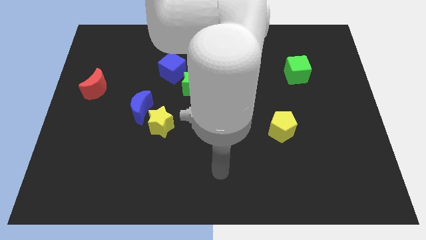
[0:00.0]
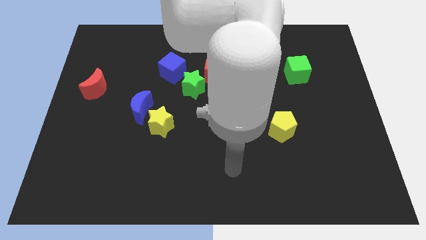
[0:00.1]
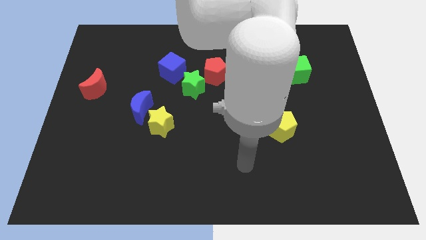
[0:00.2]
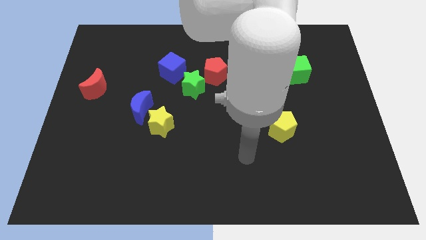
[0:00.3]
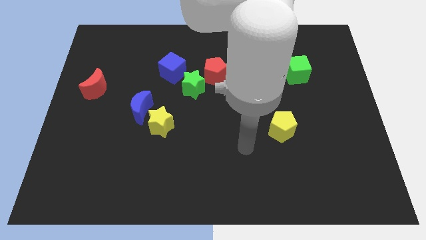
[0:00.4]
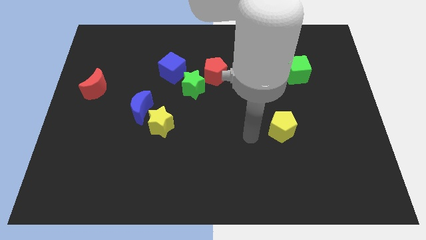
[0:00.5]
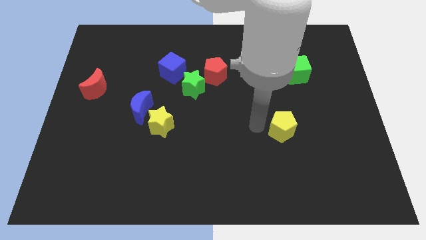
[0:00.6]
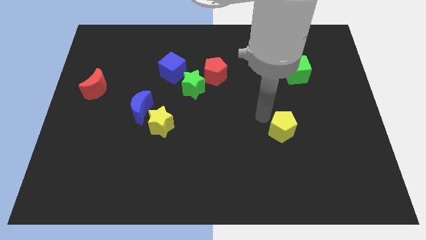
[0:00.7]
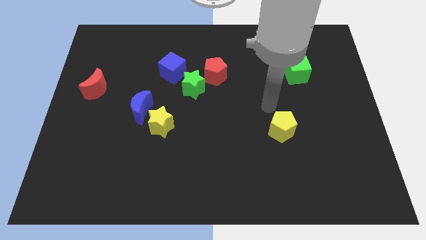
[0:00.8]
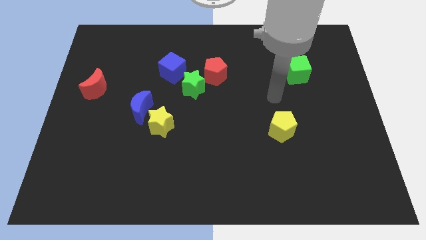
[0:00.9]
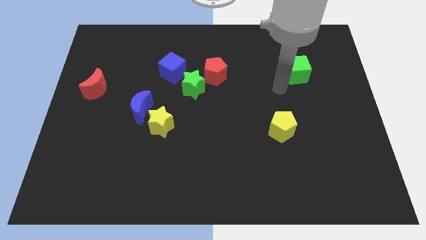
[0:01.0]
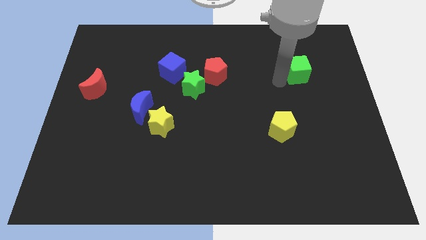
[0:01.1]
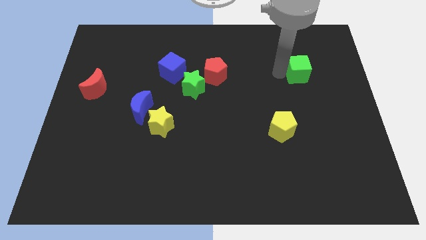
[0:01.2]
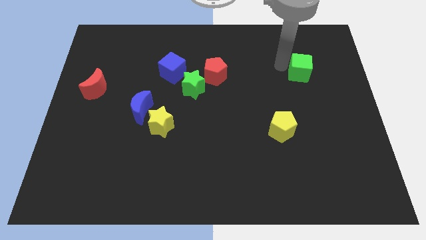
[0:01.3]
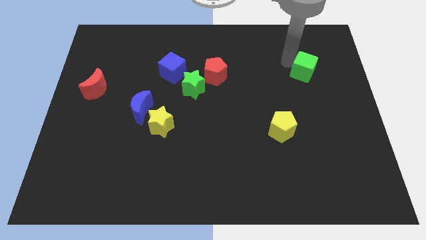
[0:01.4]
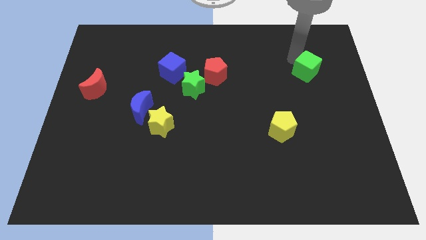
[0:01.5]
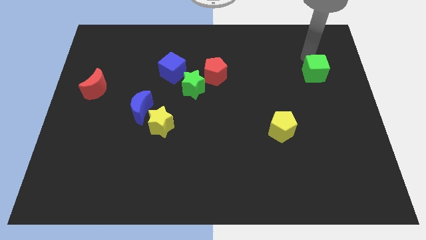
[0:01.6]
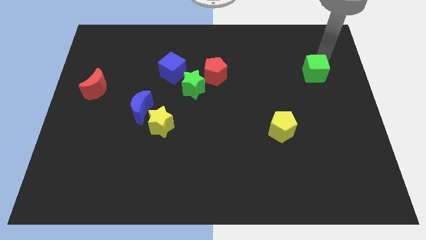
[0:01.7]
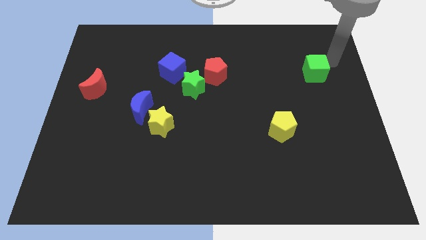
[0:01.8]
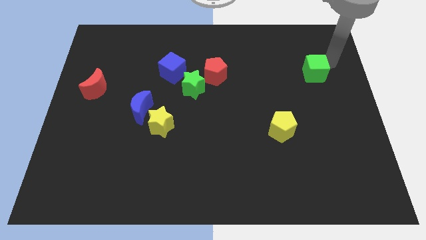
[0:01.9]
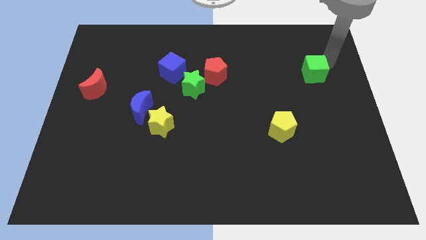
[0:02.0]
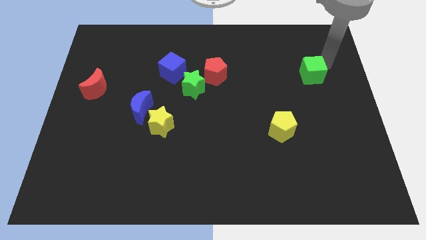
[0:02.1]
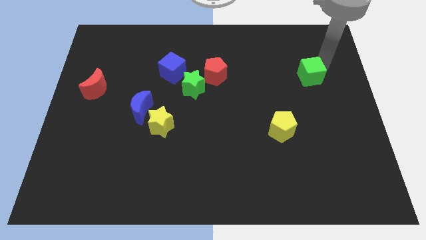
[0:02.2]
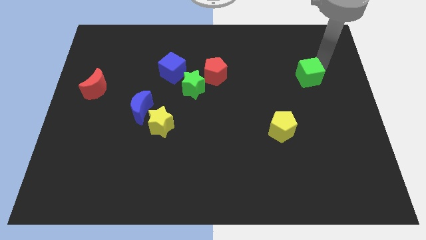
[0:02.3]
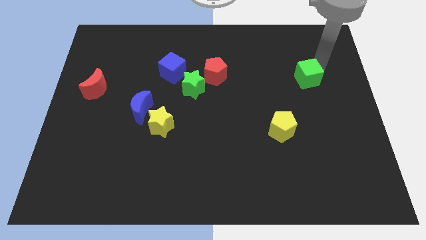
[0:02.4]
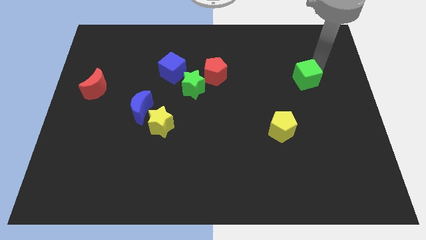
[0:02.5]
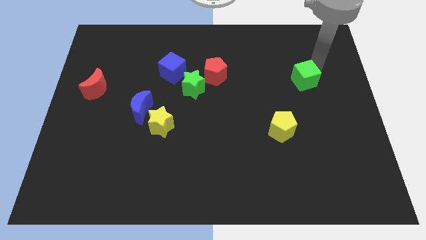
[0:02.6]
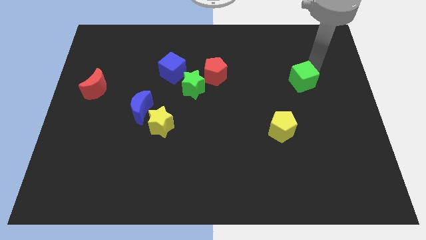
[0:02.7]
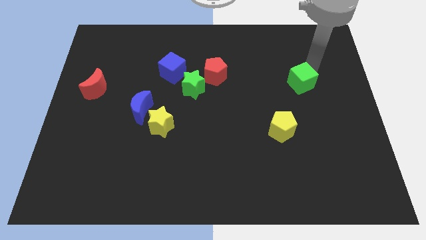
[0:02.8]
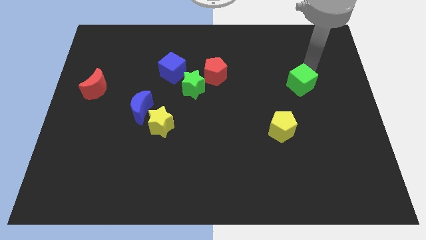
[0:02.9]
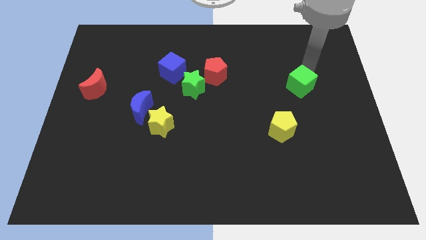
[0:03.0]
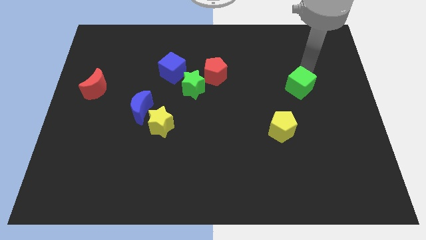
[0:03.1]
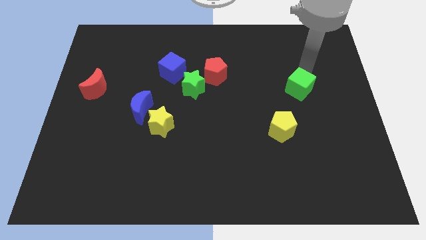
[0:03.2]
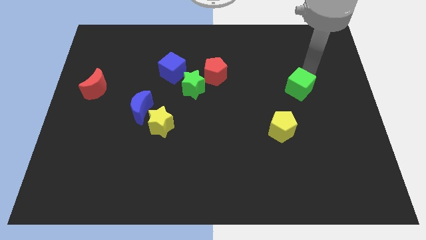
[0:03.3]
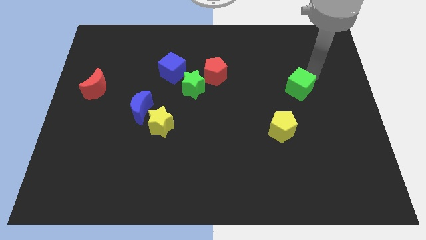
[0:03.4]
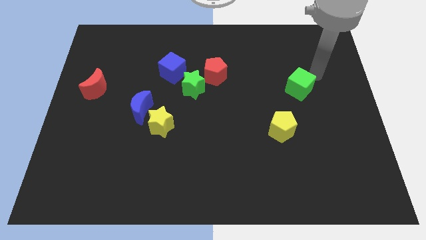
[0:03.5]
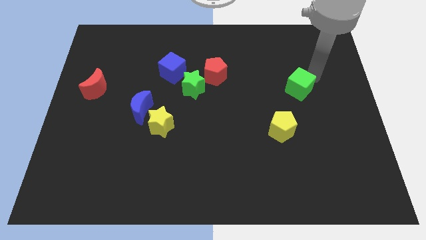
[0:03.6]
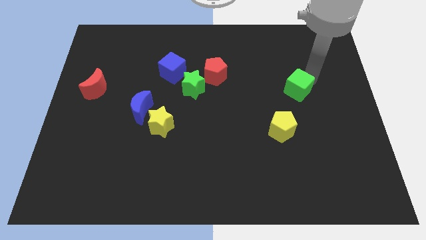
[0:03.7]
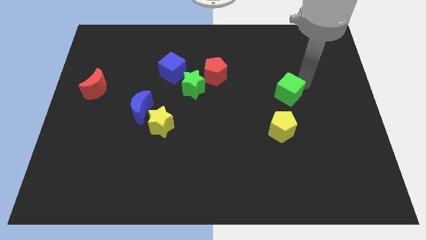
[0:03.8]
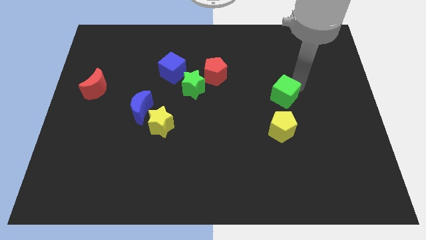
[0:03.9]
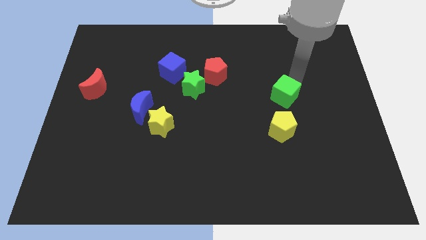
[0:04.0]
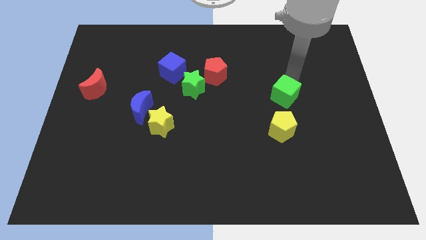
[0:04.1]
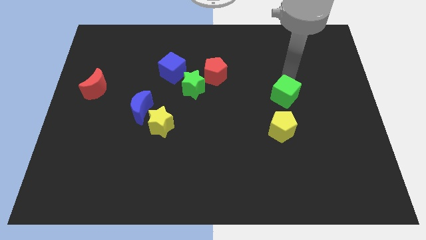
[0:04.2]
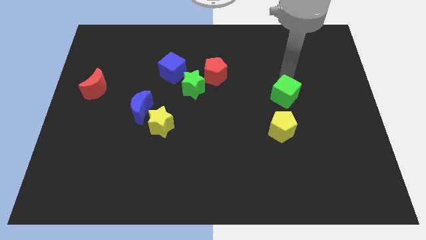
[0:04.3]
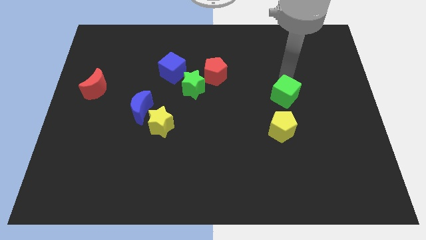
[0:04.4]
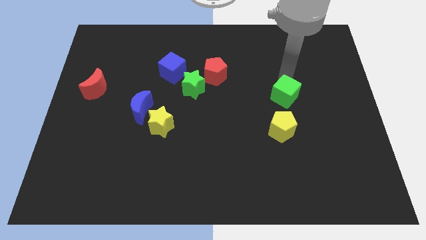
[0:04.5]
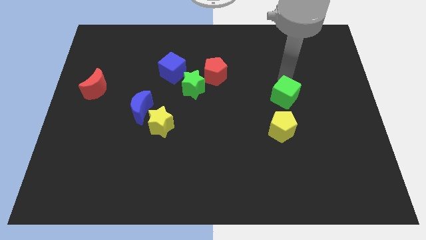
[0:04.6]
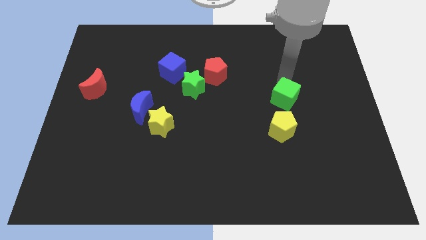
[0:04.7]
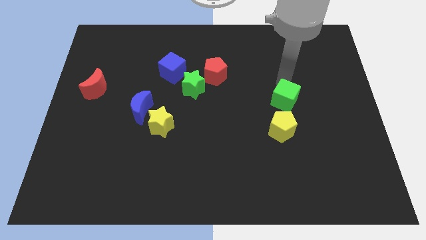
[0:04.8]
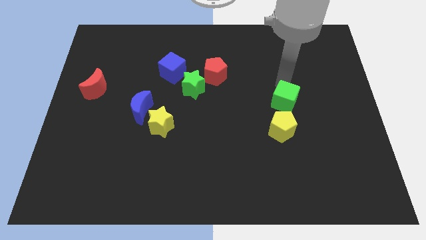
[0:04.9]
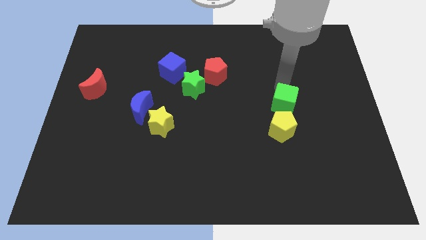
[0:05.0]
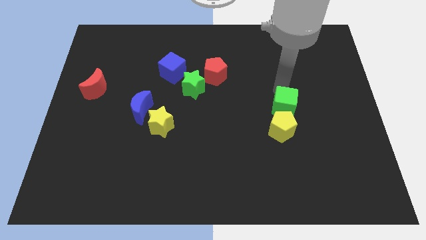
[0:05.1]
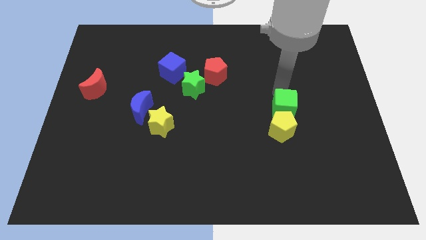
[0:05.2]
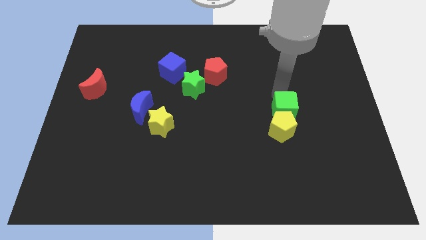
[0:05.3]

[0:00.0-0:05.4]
put the green cube to the yellow pentagon

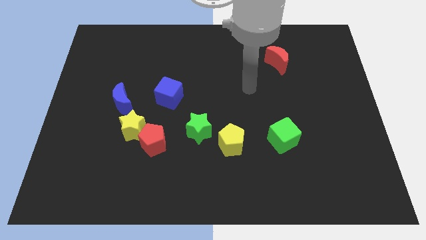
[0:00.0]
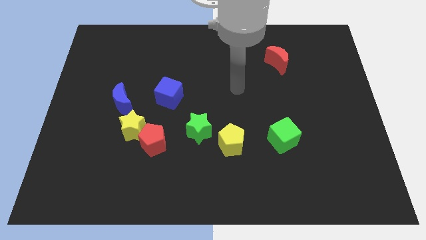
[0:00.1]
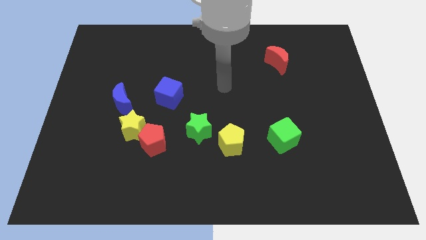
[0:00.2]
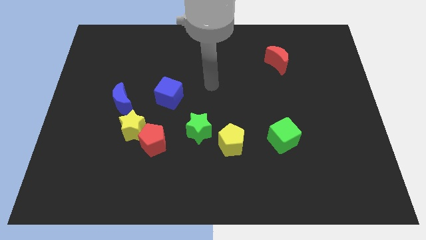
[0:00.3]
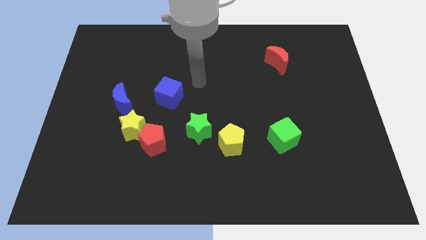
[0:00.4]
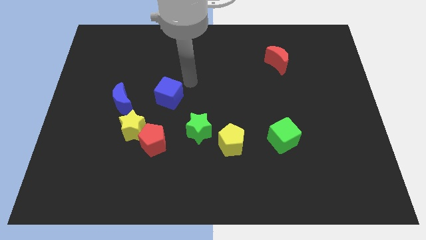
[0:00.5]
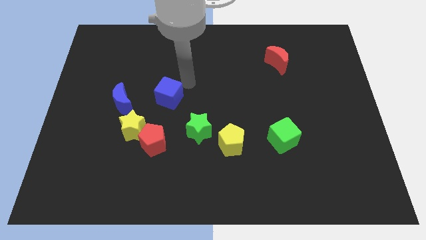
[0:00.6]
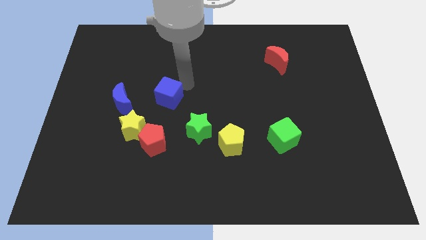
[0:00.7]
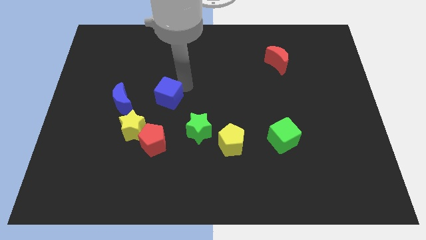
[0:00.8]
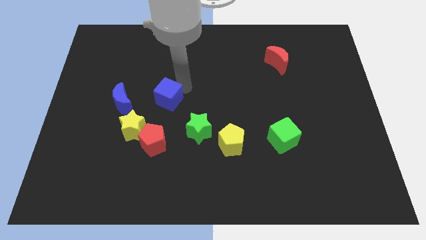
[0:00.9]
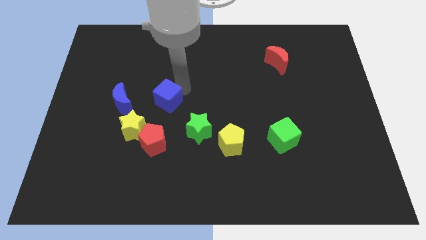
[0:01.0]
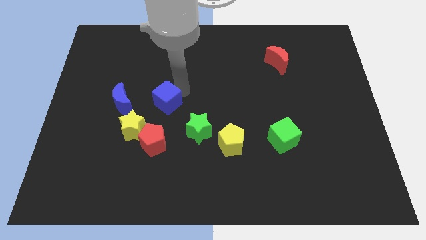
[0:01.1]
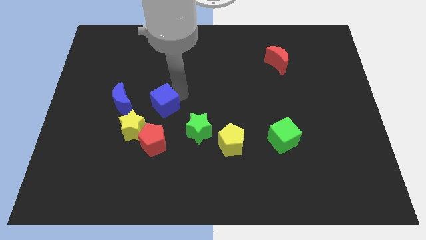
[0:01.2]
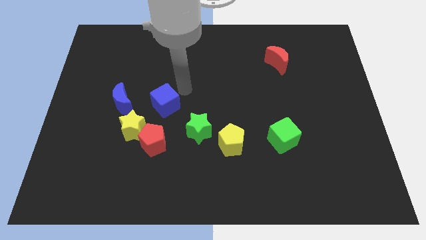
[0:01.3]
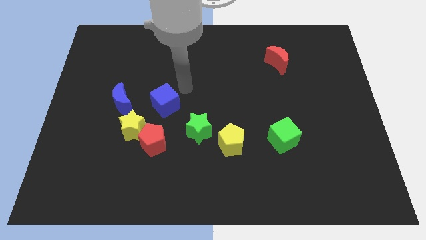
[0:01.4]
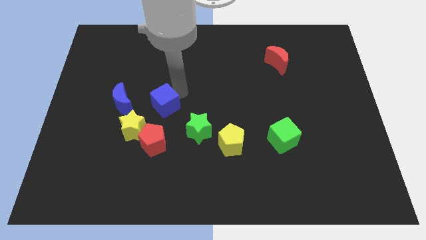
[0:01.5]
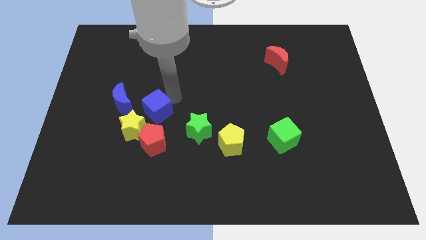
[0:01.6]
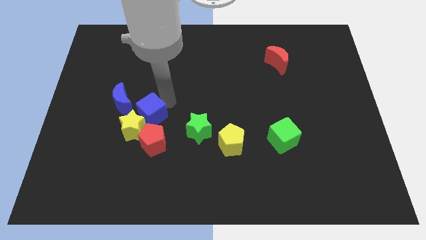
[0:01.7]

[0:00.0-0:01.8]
move the blue cube to the yellow star
